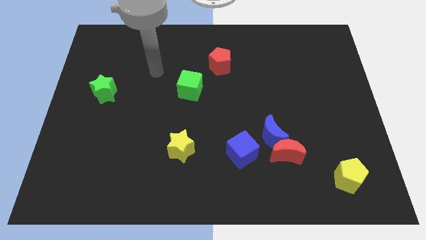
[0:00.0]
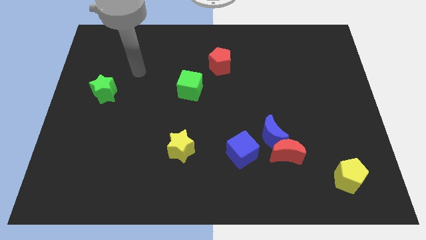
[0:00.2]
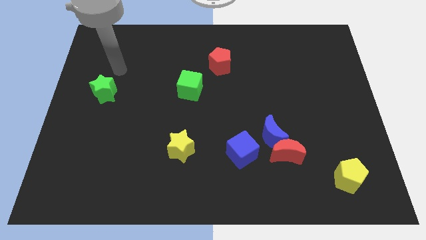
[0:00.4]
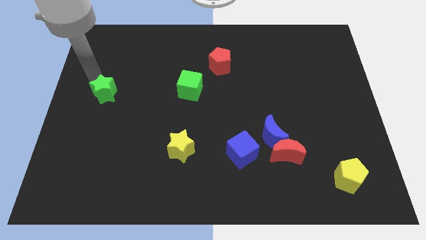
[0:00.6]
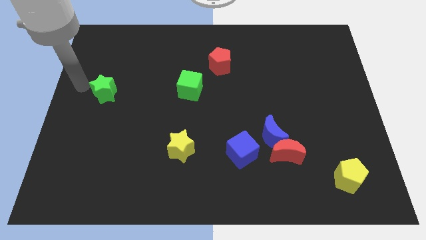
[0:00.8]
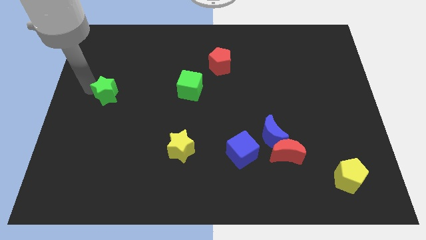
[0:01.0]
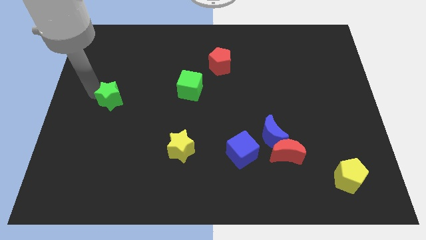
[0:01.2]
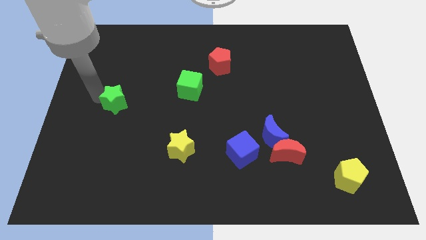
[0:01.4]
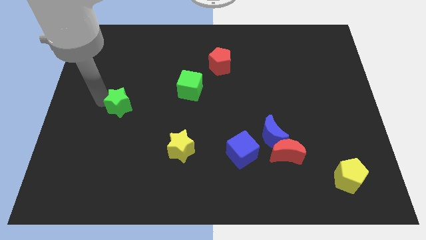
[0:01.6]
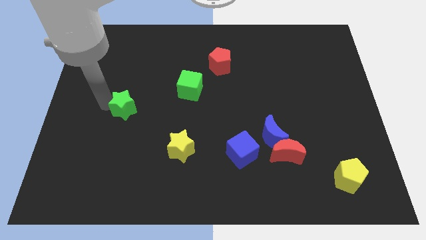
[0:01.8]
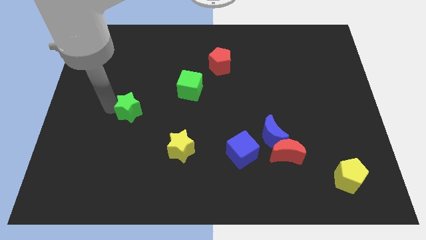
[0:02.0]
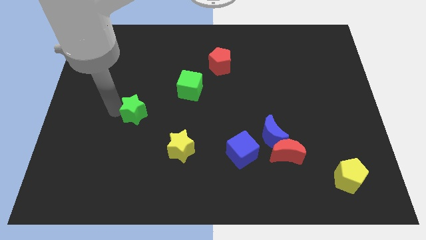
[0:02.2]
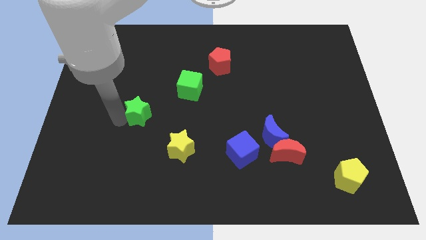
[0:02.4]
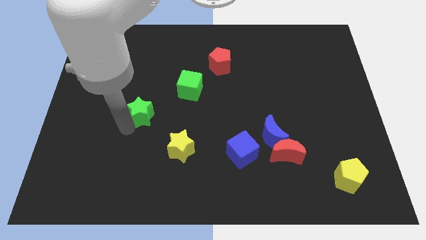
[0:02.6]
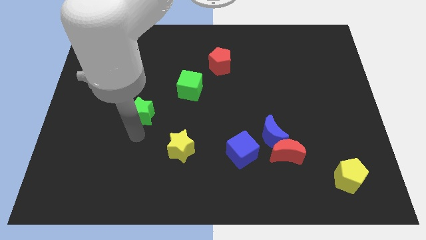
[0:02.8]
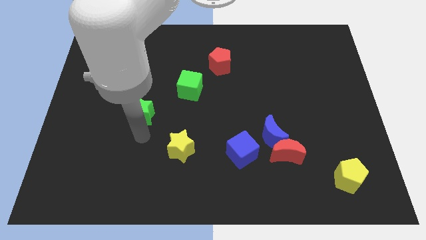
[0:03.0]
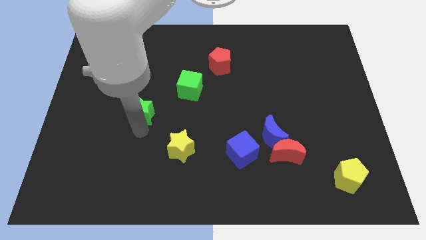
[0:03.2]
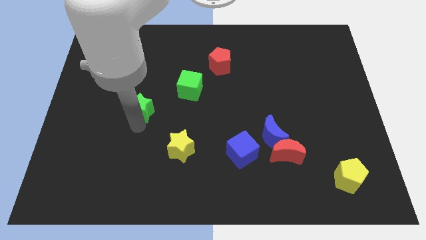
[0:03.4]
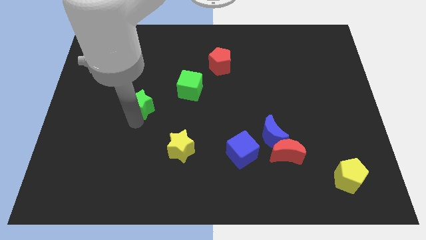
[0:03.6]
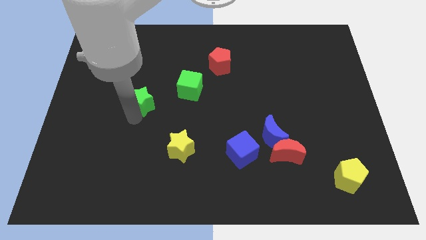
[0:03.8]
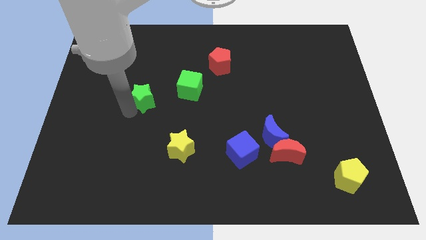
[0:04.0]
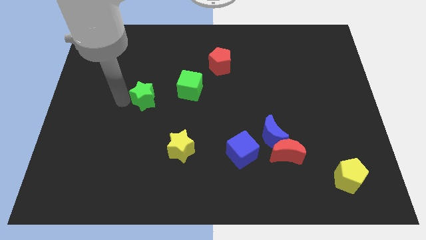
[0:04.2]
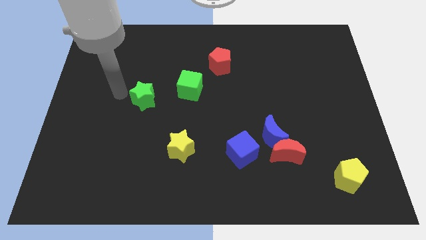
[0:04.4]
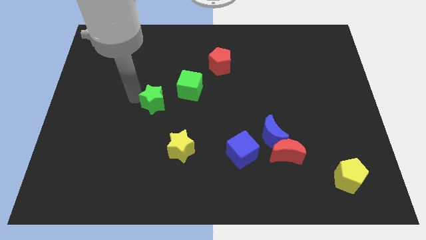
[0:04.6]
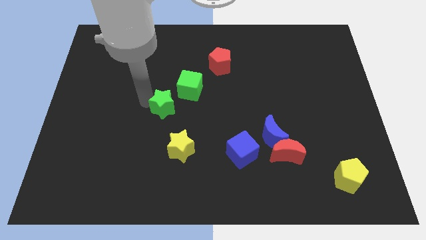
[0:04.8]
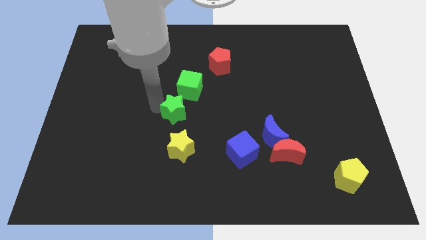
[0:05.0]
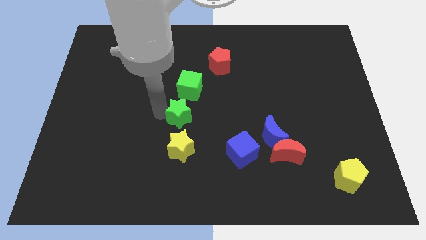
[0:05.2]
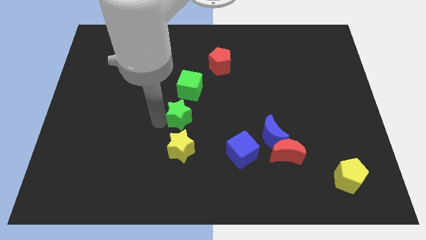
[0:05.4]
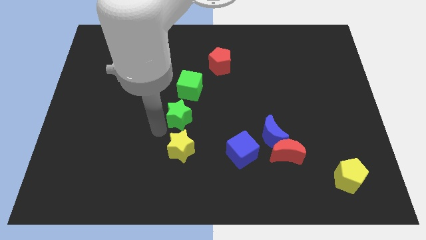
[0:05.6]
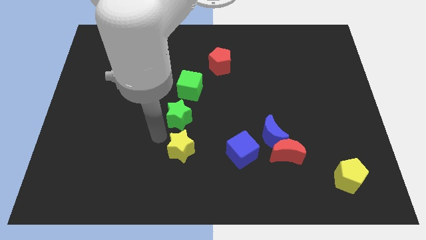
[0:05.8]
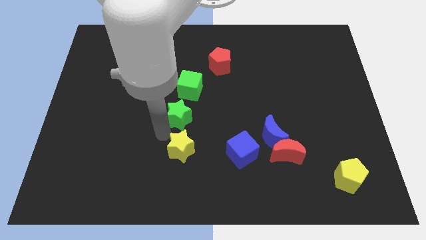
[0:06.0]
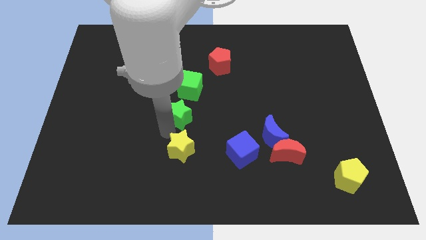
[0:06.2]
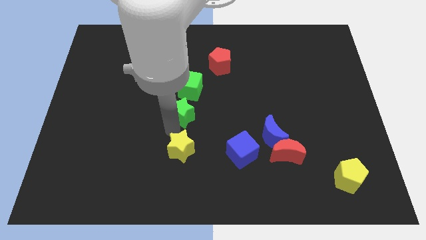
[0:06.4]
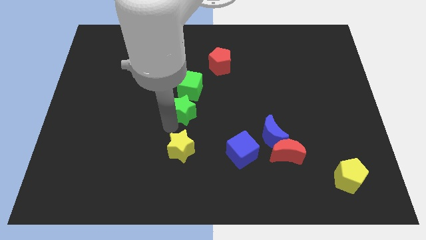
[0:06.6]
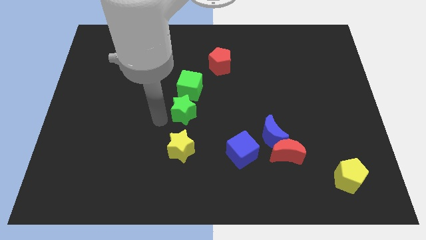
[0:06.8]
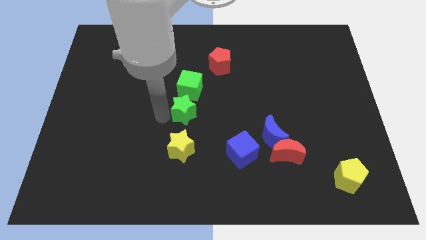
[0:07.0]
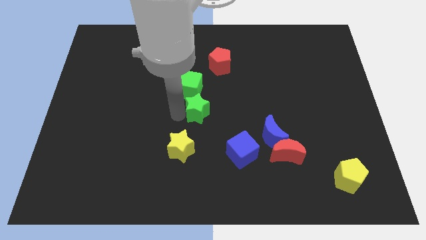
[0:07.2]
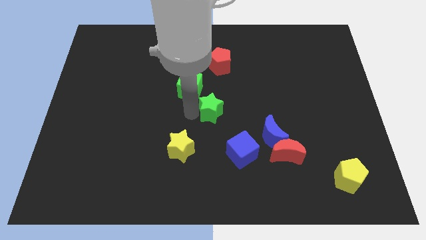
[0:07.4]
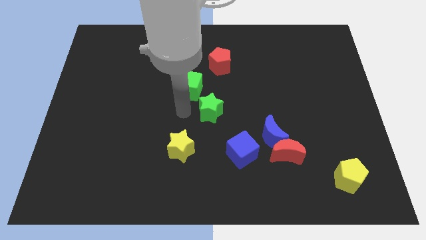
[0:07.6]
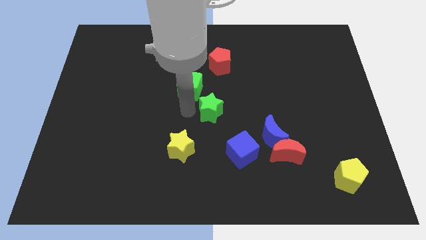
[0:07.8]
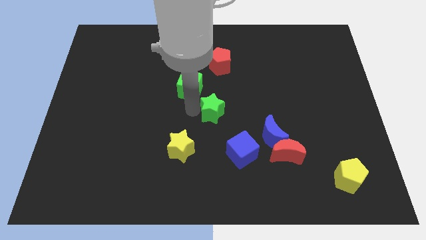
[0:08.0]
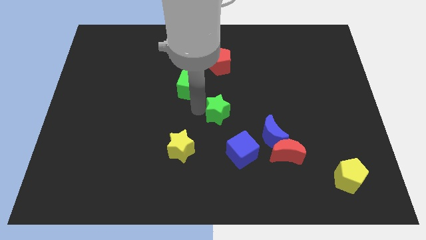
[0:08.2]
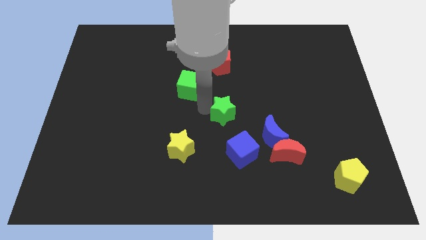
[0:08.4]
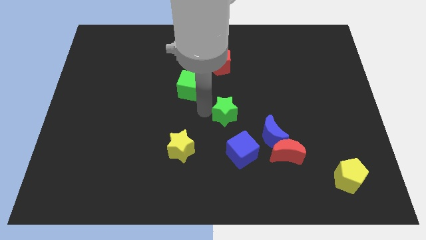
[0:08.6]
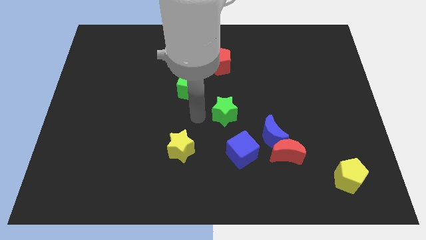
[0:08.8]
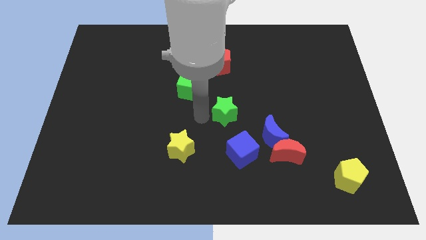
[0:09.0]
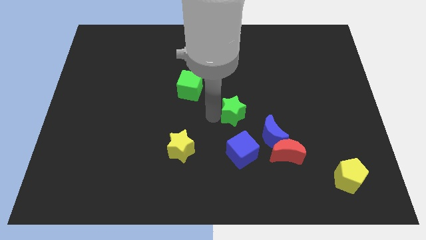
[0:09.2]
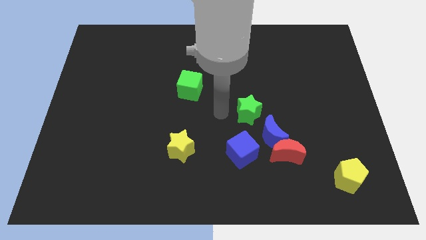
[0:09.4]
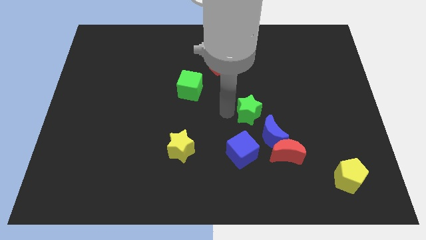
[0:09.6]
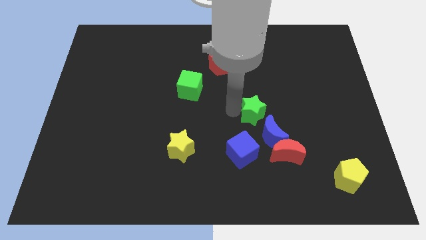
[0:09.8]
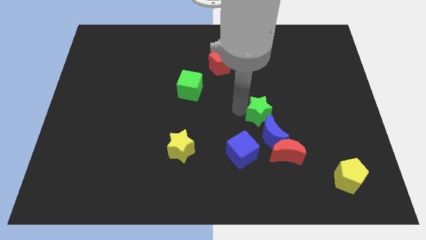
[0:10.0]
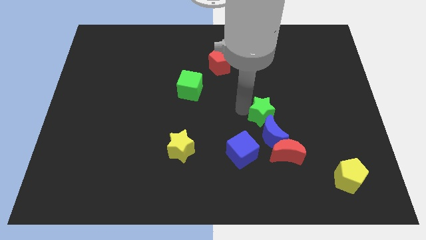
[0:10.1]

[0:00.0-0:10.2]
push the green star to the top of the red moon

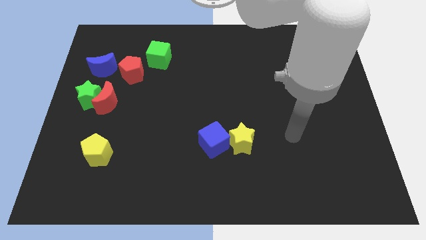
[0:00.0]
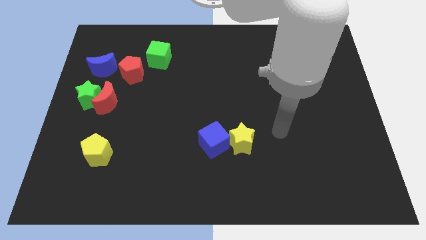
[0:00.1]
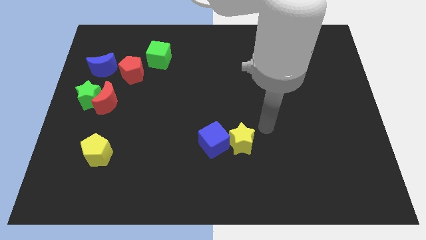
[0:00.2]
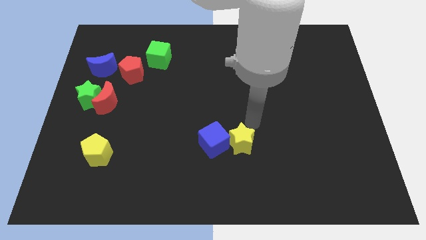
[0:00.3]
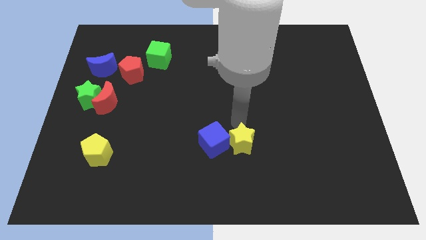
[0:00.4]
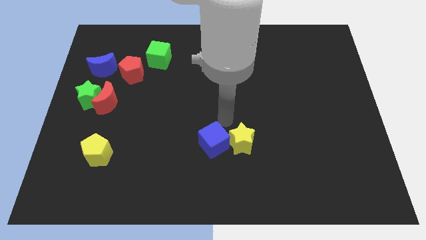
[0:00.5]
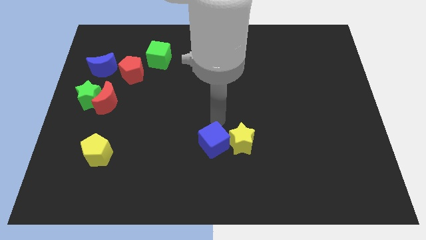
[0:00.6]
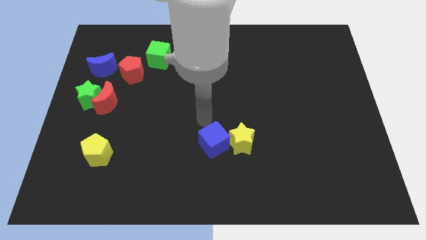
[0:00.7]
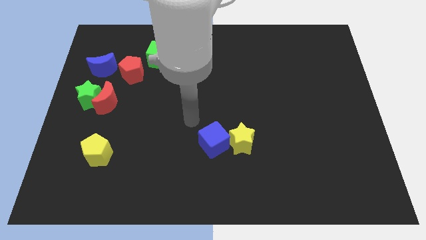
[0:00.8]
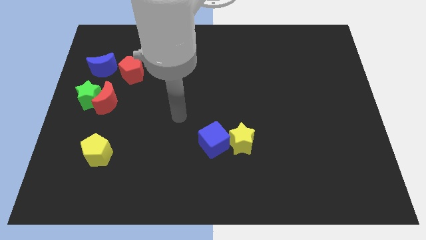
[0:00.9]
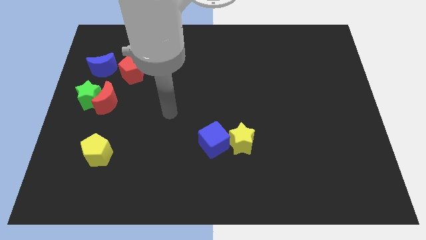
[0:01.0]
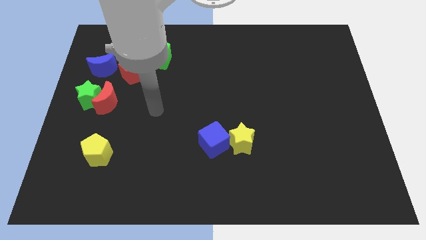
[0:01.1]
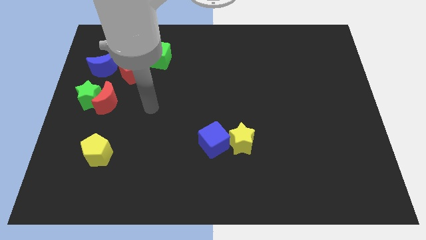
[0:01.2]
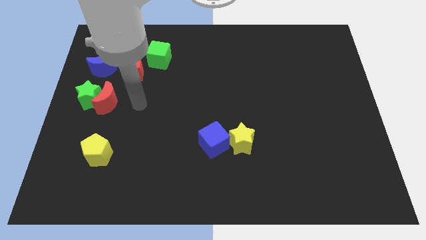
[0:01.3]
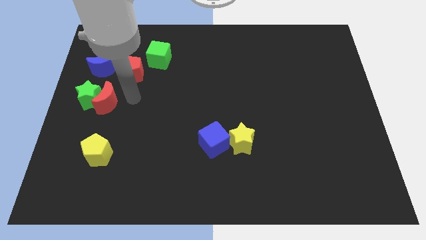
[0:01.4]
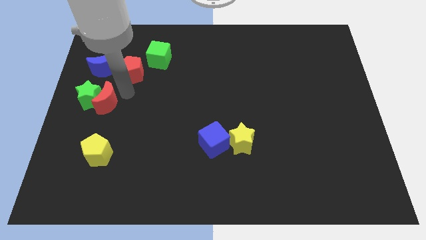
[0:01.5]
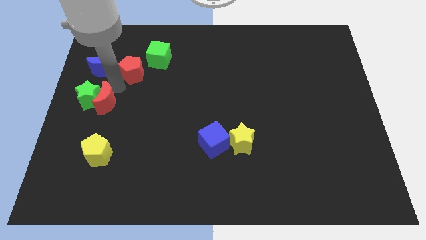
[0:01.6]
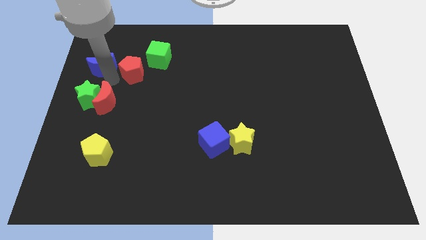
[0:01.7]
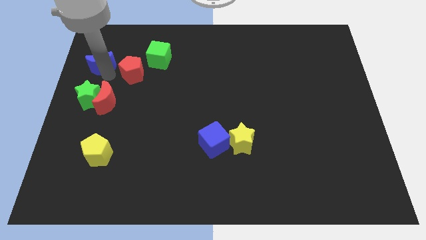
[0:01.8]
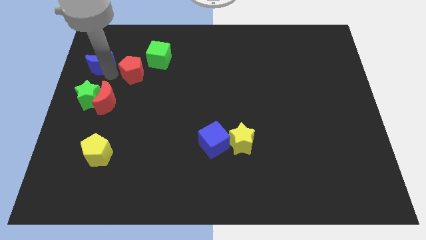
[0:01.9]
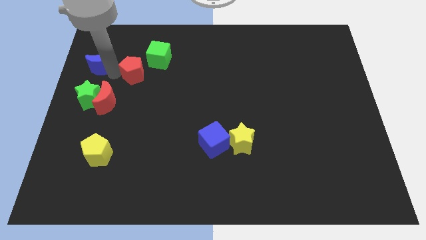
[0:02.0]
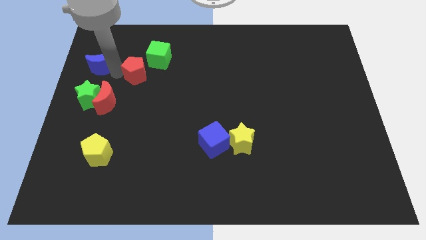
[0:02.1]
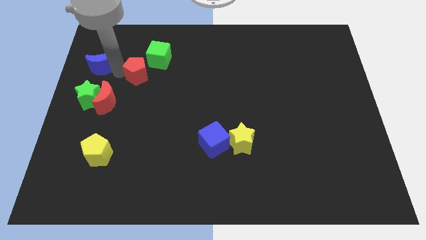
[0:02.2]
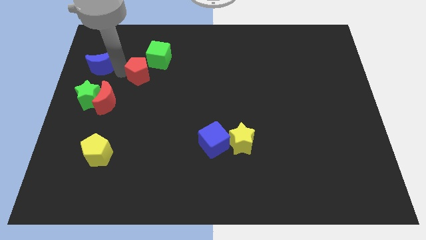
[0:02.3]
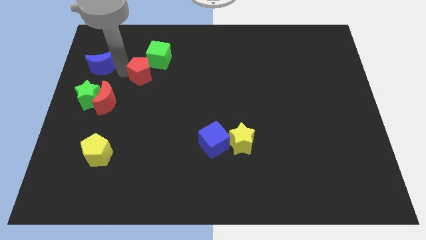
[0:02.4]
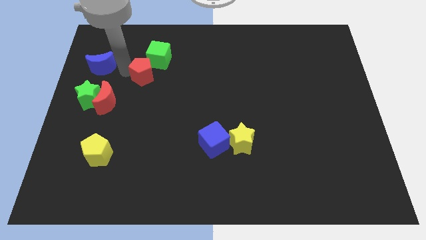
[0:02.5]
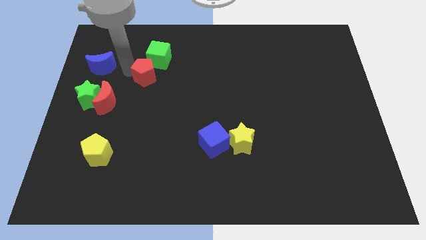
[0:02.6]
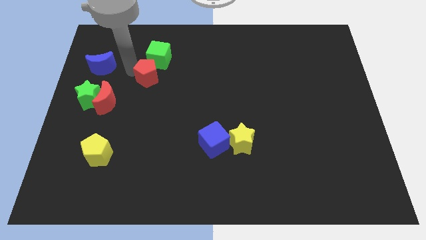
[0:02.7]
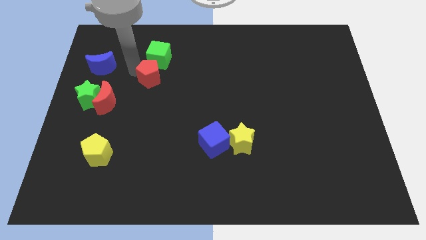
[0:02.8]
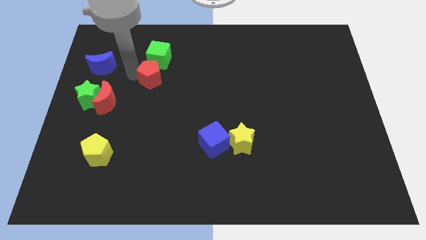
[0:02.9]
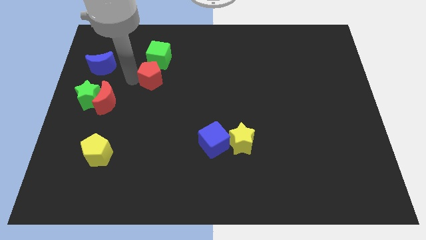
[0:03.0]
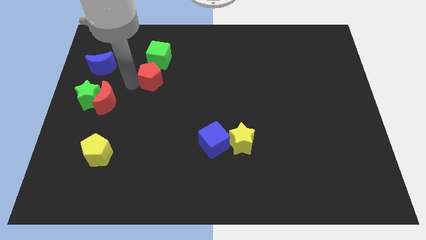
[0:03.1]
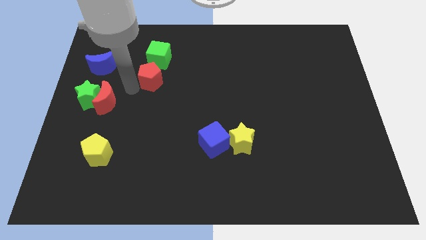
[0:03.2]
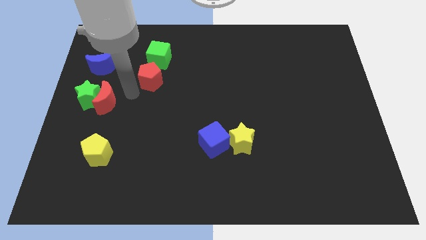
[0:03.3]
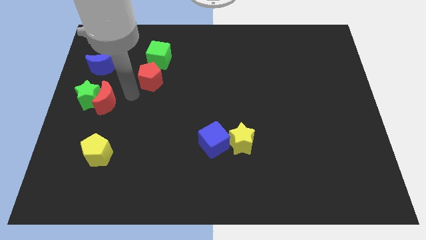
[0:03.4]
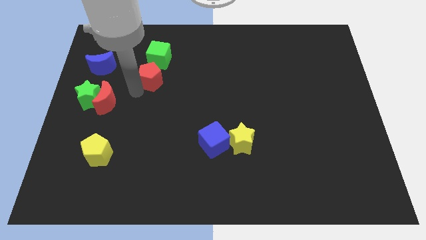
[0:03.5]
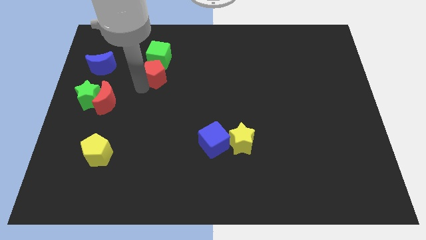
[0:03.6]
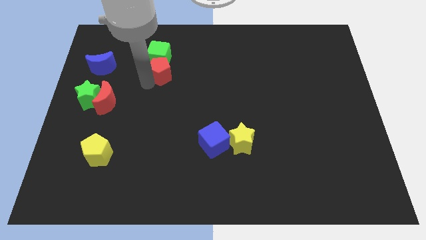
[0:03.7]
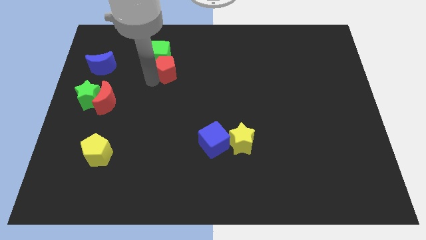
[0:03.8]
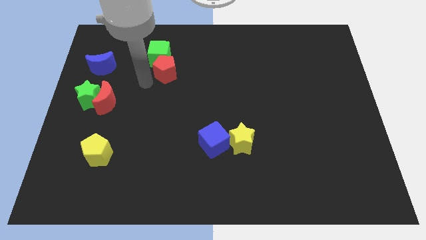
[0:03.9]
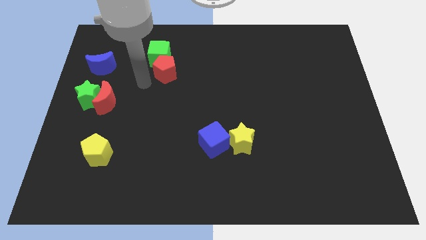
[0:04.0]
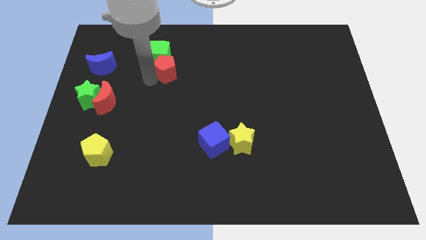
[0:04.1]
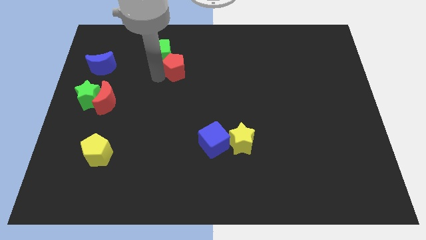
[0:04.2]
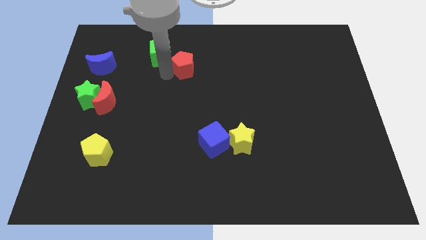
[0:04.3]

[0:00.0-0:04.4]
move the red pentagon to the right of the green cube
